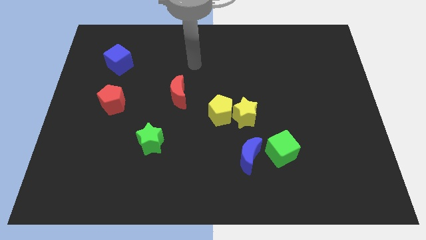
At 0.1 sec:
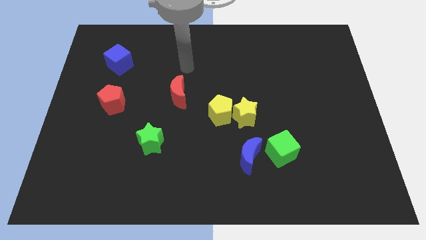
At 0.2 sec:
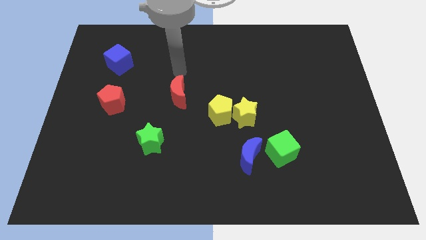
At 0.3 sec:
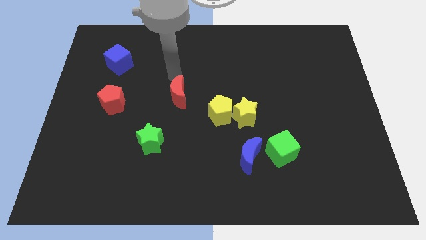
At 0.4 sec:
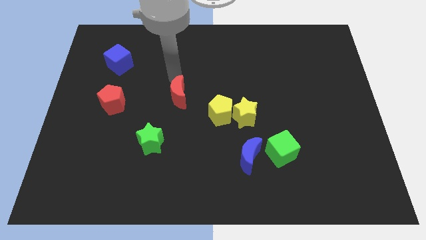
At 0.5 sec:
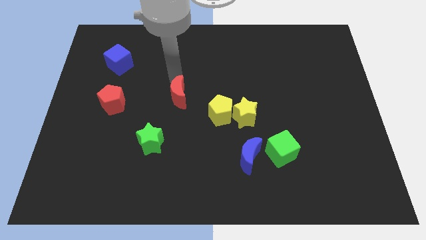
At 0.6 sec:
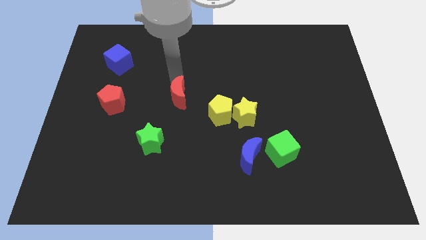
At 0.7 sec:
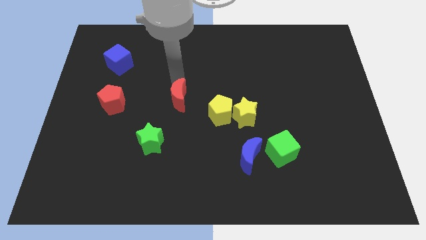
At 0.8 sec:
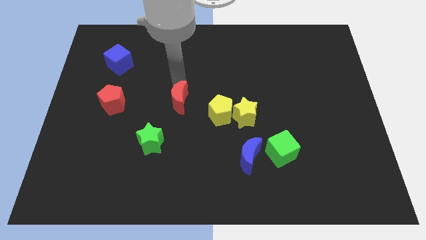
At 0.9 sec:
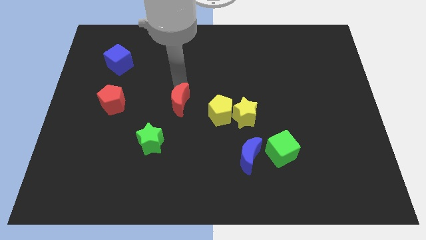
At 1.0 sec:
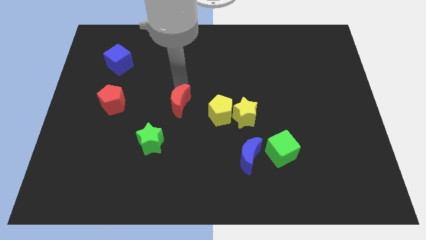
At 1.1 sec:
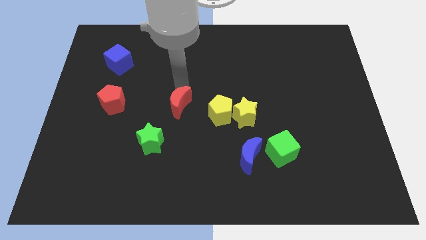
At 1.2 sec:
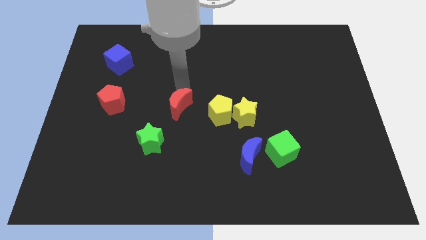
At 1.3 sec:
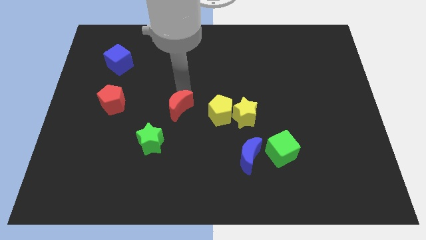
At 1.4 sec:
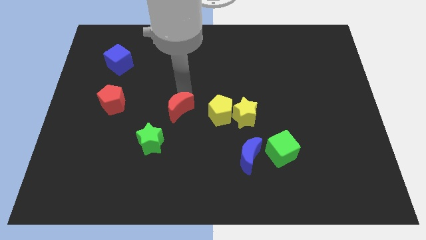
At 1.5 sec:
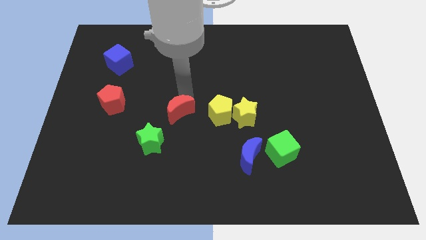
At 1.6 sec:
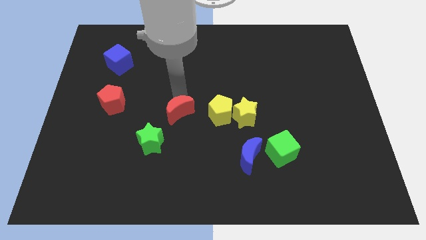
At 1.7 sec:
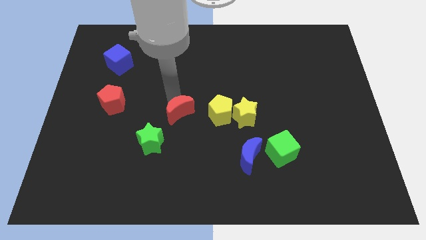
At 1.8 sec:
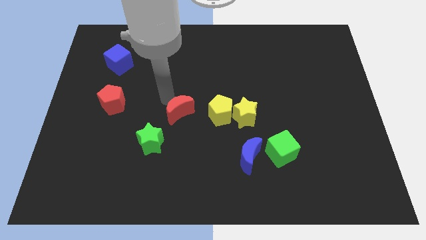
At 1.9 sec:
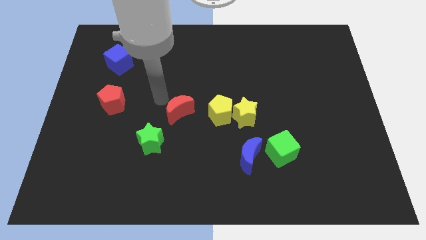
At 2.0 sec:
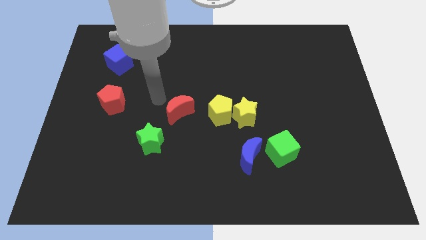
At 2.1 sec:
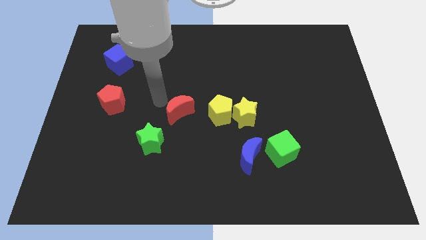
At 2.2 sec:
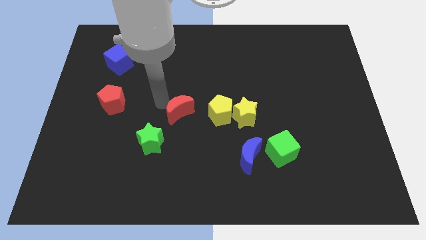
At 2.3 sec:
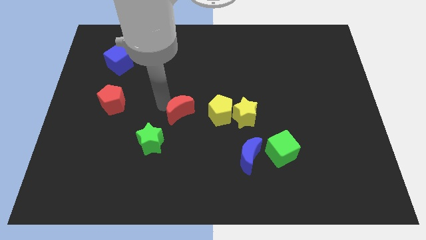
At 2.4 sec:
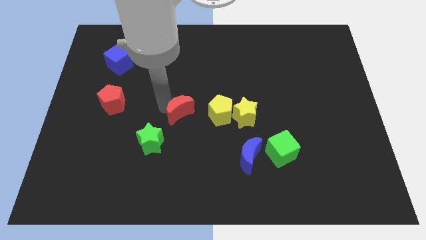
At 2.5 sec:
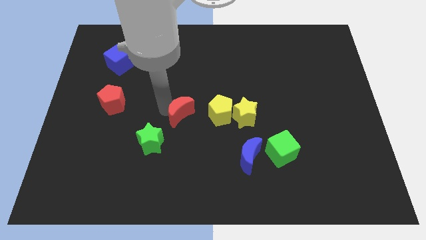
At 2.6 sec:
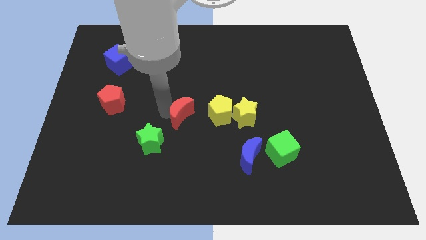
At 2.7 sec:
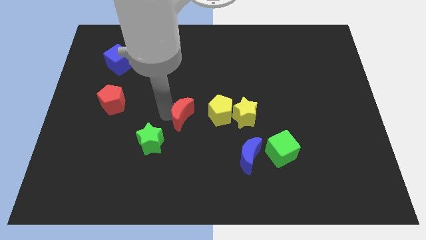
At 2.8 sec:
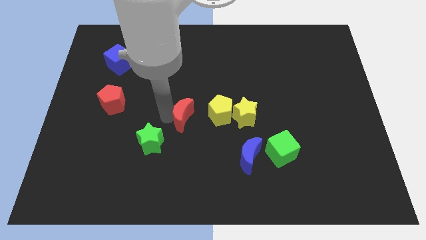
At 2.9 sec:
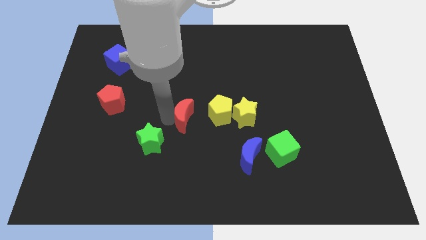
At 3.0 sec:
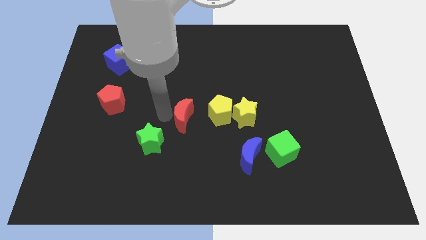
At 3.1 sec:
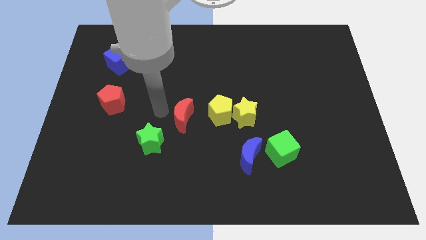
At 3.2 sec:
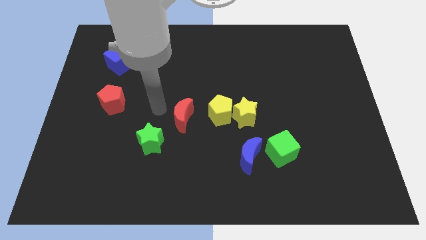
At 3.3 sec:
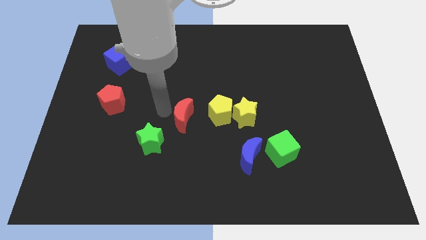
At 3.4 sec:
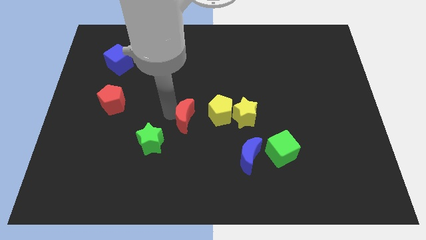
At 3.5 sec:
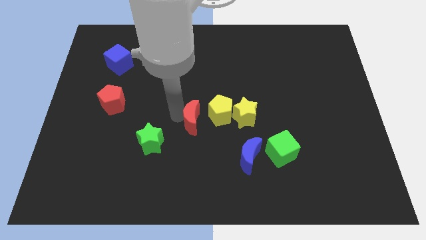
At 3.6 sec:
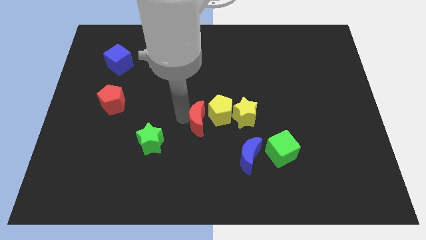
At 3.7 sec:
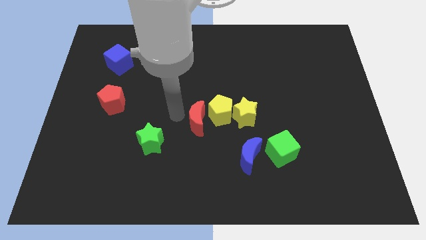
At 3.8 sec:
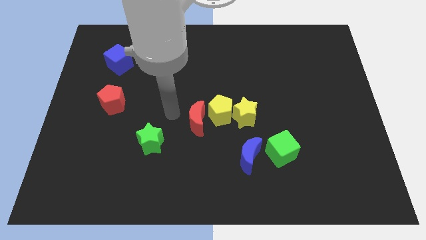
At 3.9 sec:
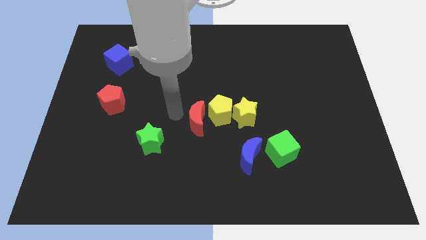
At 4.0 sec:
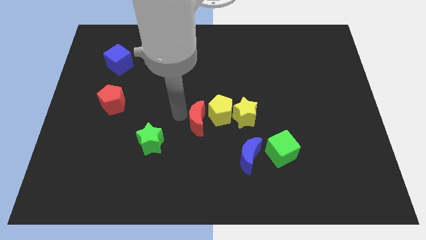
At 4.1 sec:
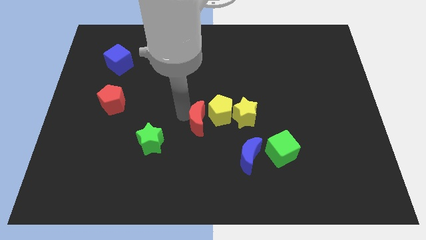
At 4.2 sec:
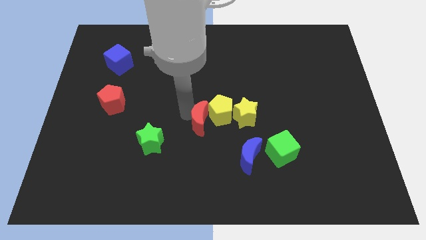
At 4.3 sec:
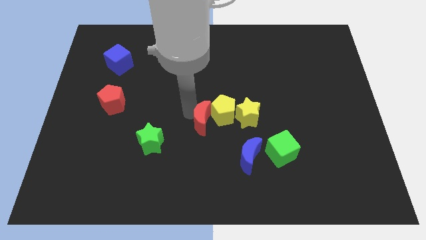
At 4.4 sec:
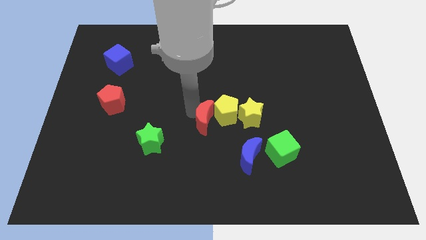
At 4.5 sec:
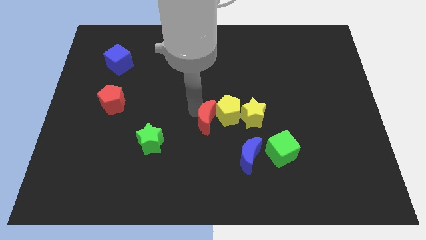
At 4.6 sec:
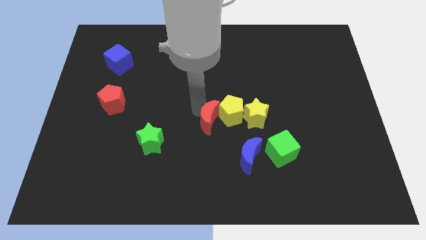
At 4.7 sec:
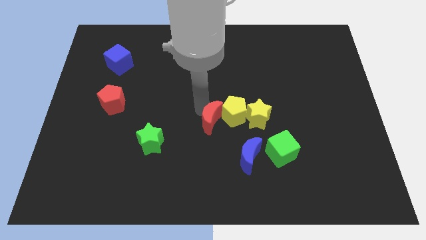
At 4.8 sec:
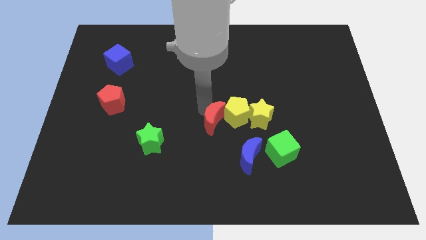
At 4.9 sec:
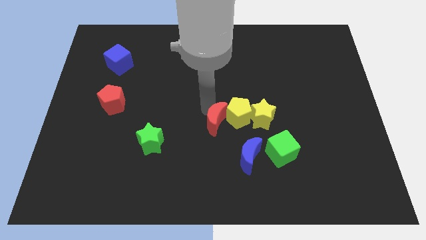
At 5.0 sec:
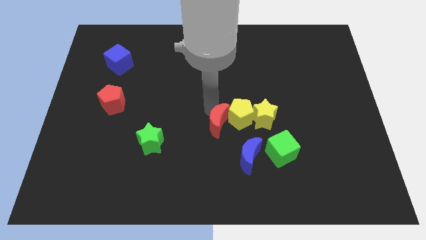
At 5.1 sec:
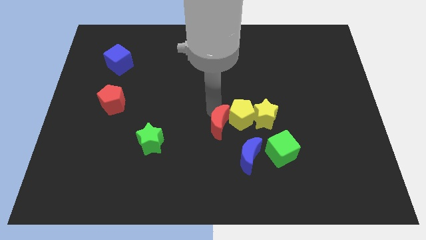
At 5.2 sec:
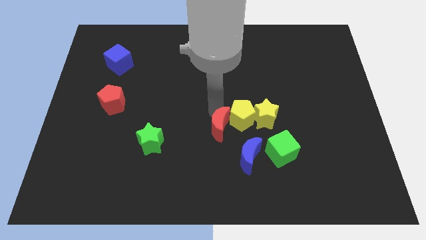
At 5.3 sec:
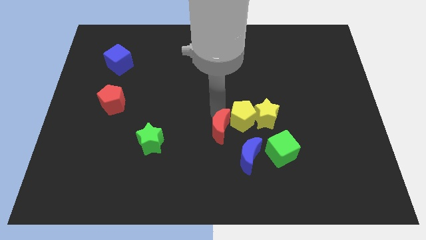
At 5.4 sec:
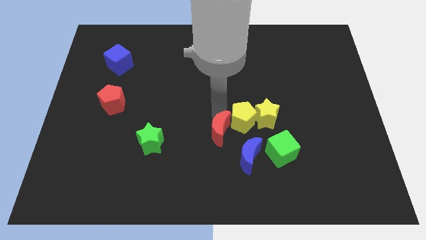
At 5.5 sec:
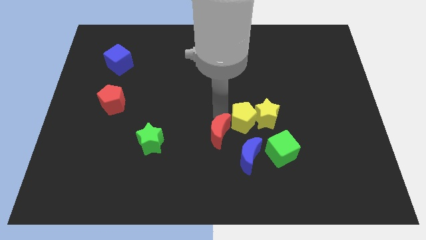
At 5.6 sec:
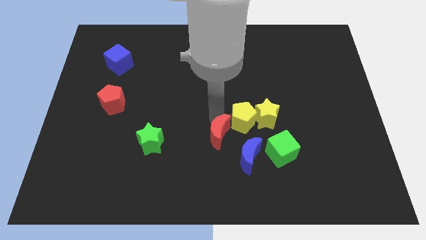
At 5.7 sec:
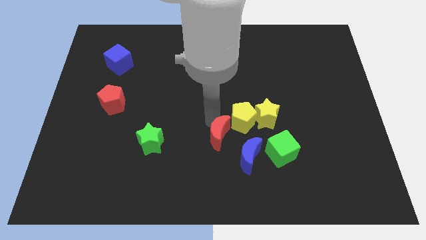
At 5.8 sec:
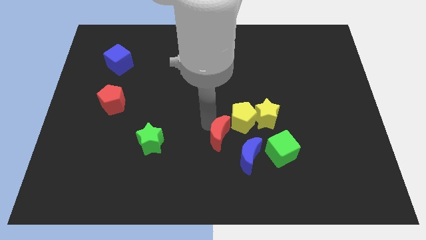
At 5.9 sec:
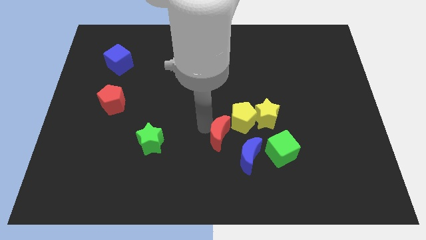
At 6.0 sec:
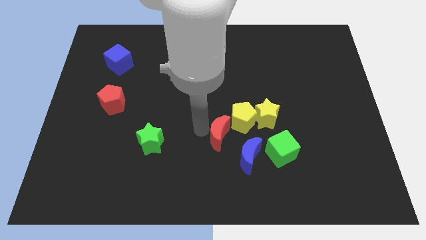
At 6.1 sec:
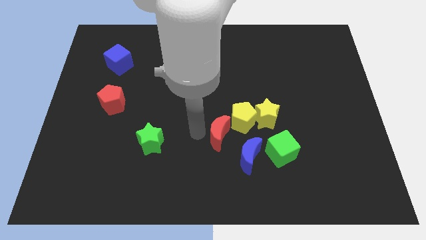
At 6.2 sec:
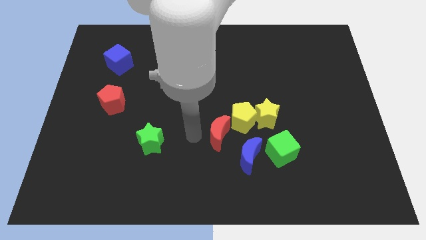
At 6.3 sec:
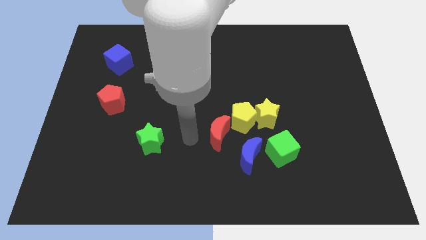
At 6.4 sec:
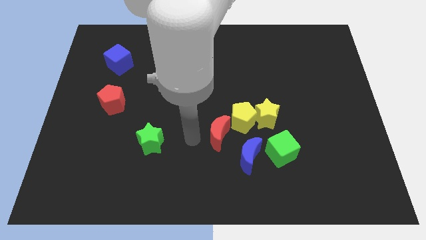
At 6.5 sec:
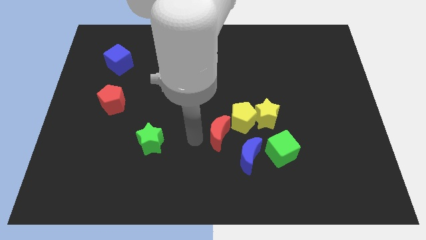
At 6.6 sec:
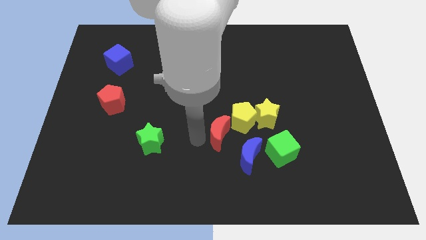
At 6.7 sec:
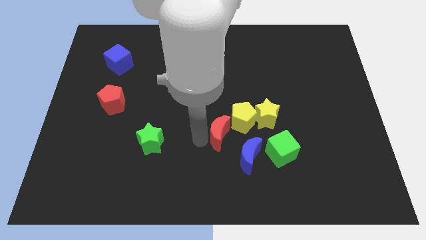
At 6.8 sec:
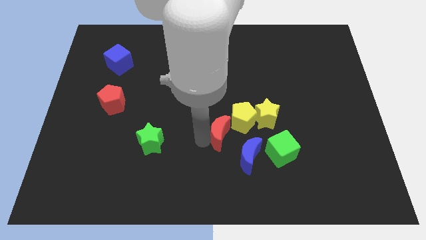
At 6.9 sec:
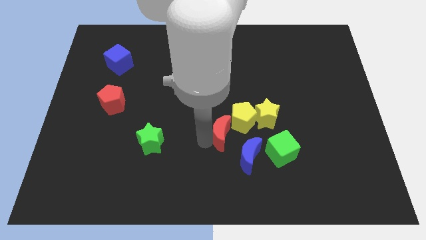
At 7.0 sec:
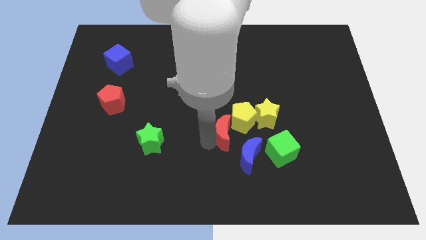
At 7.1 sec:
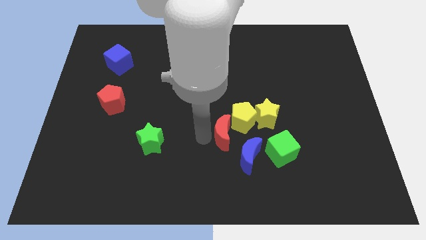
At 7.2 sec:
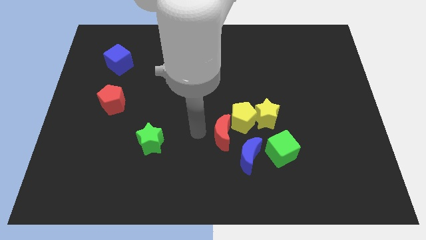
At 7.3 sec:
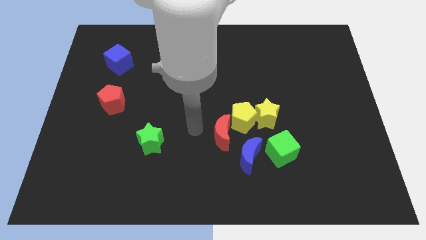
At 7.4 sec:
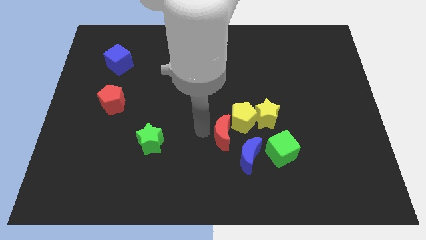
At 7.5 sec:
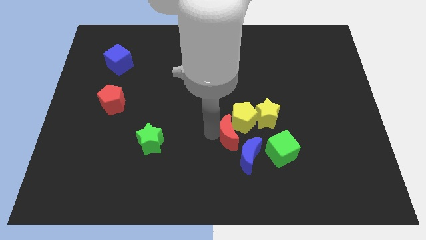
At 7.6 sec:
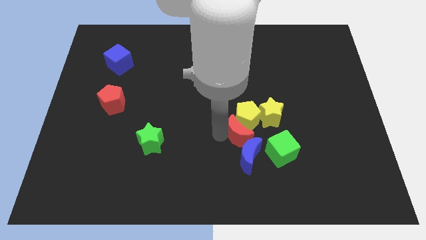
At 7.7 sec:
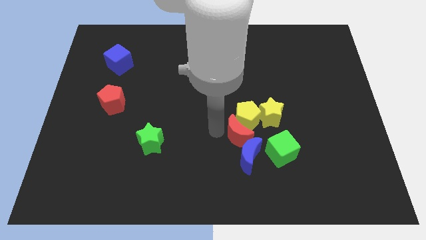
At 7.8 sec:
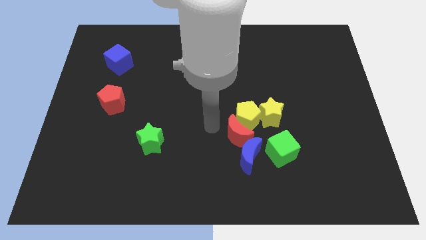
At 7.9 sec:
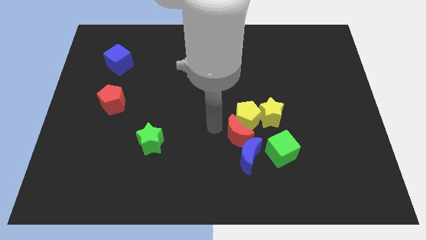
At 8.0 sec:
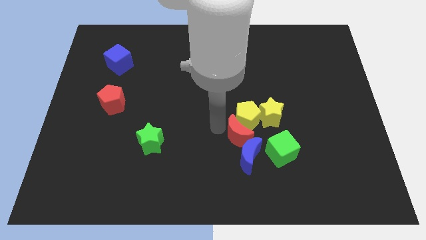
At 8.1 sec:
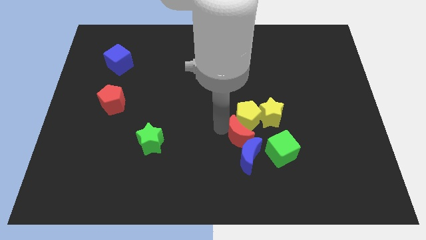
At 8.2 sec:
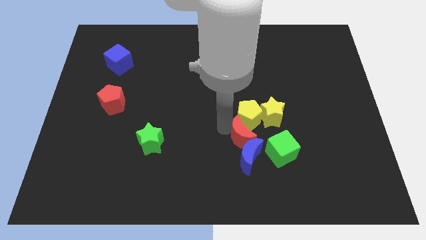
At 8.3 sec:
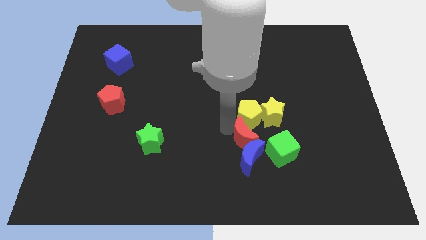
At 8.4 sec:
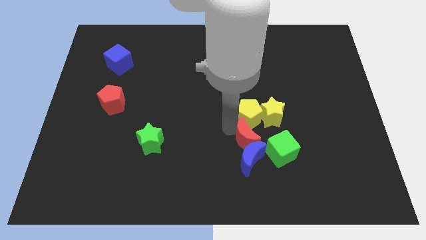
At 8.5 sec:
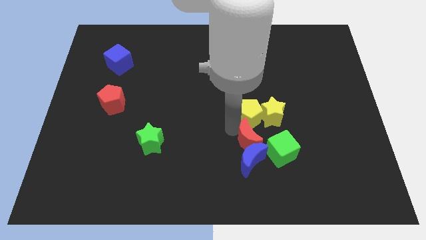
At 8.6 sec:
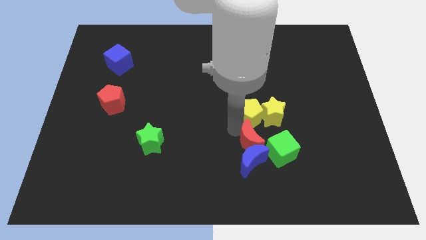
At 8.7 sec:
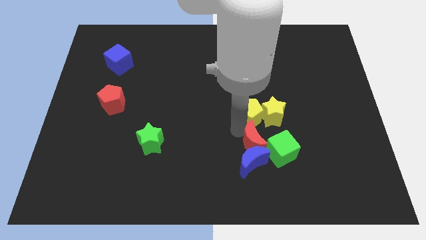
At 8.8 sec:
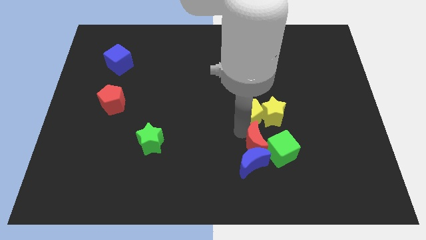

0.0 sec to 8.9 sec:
push the red moon close to the green cube
